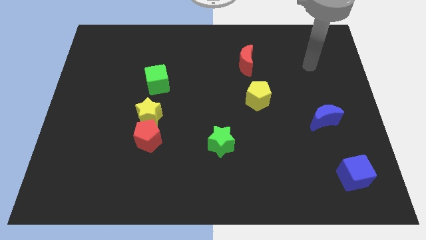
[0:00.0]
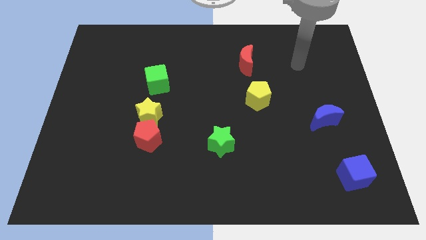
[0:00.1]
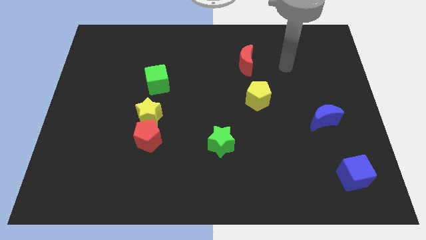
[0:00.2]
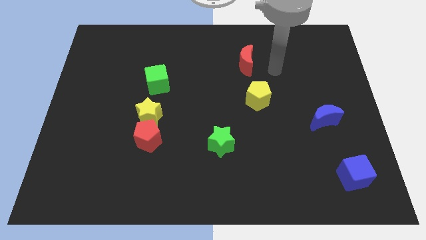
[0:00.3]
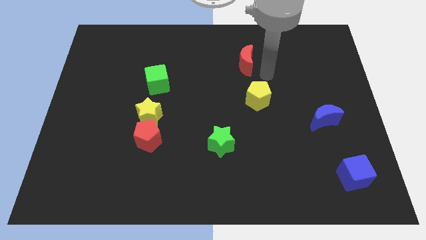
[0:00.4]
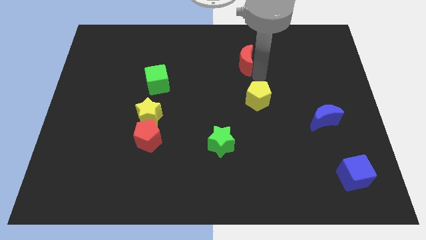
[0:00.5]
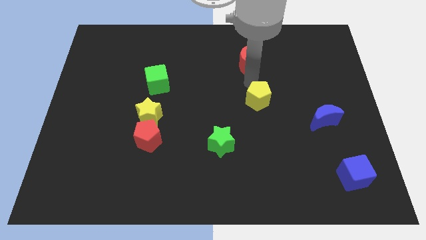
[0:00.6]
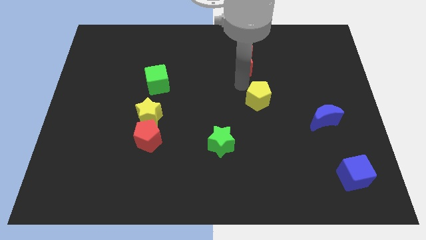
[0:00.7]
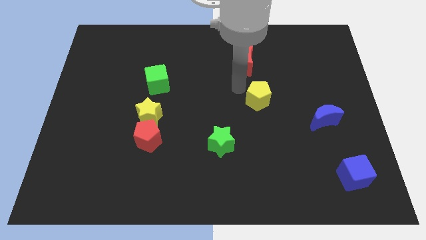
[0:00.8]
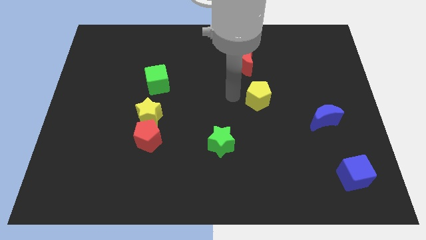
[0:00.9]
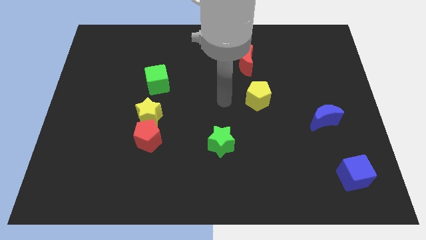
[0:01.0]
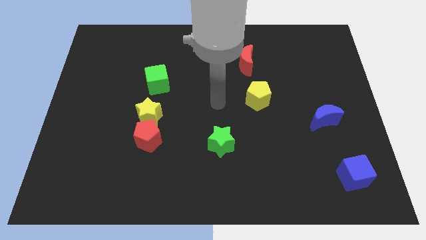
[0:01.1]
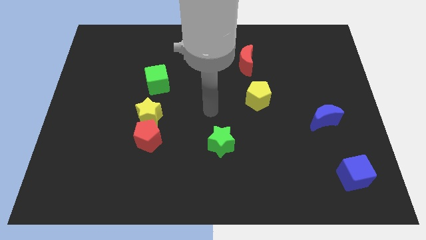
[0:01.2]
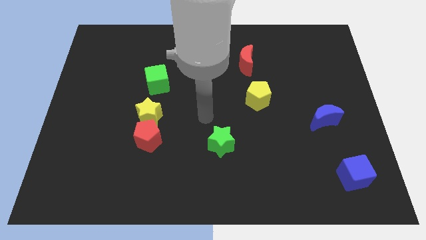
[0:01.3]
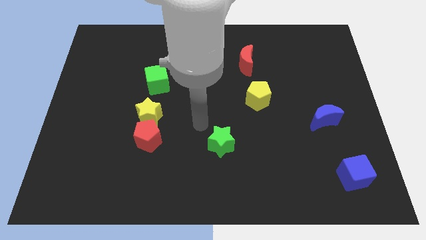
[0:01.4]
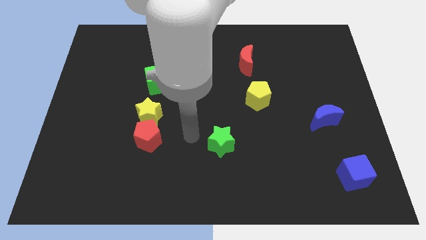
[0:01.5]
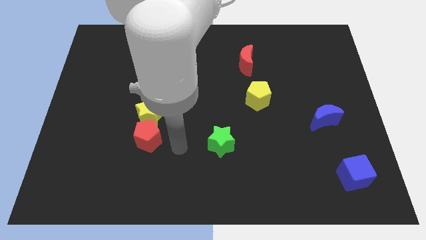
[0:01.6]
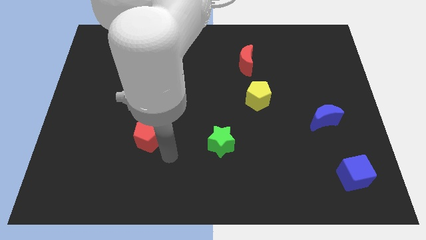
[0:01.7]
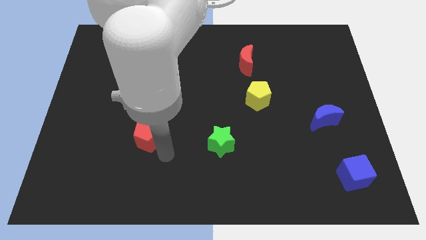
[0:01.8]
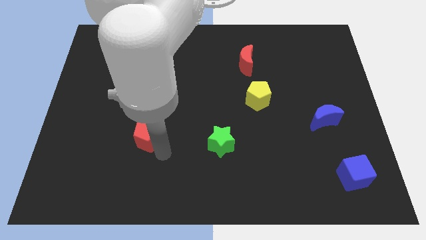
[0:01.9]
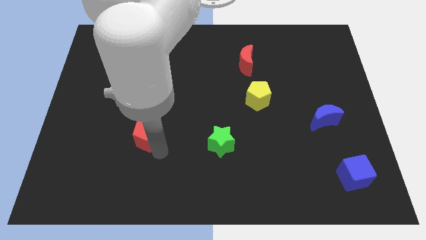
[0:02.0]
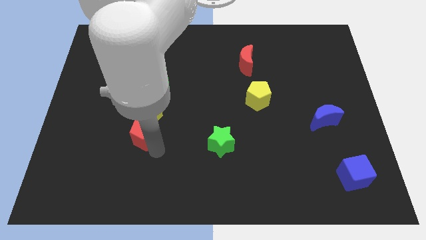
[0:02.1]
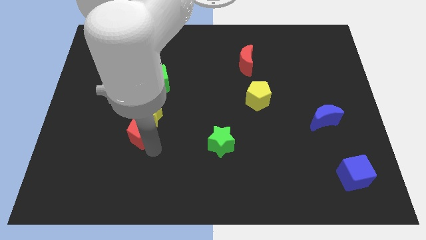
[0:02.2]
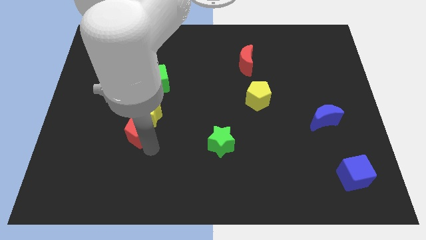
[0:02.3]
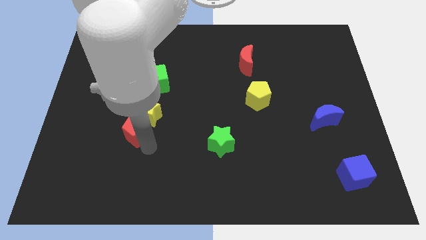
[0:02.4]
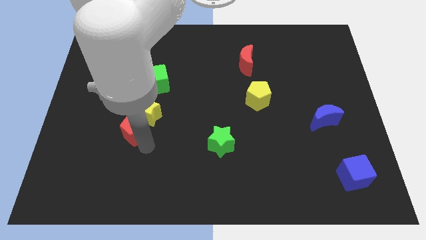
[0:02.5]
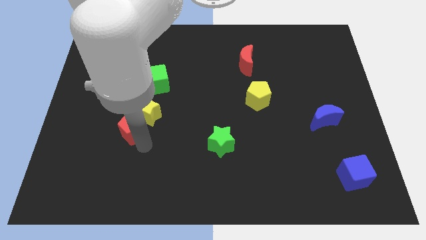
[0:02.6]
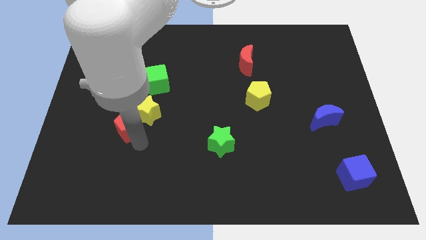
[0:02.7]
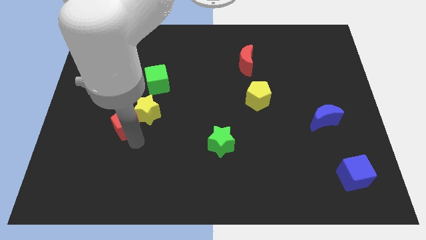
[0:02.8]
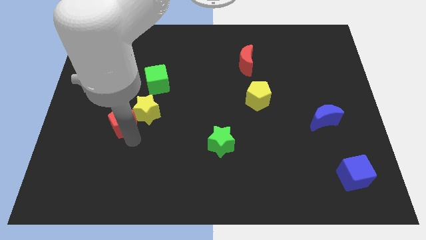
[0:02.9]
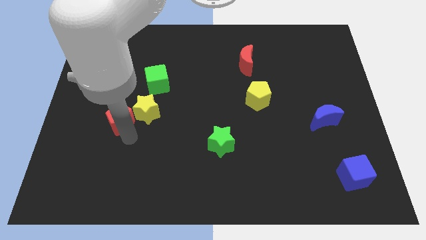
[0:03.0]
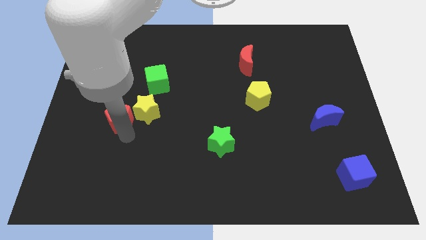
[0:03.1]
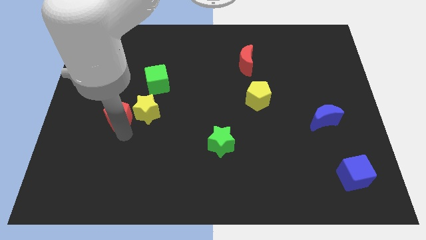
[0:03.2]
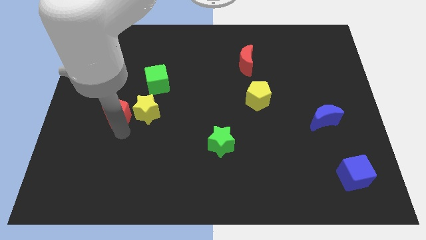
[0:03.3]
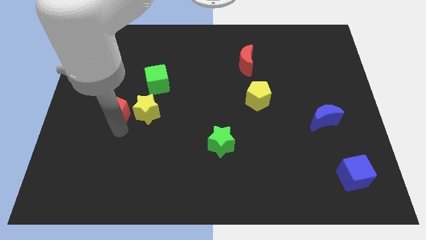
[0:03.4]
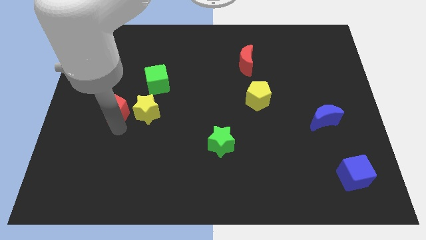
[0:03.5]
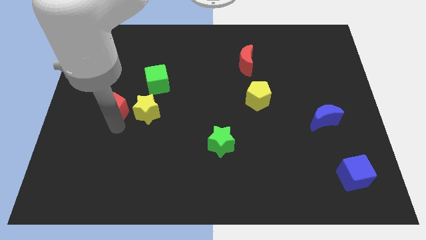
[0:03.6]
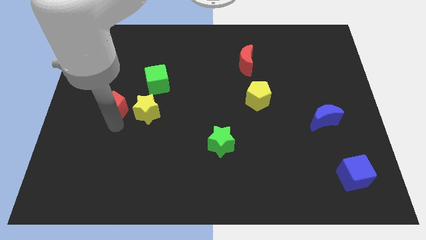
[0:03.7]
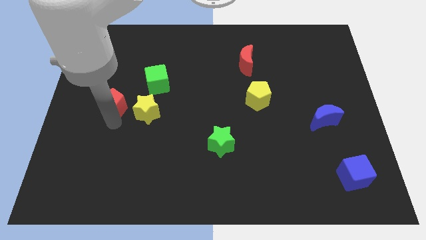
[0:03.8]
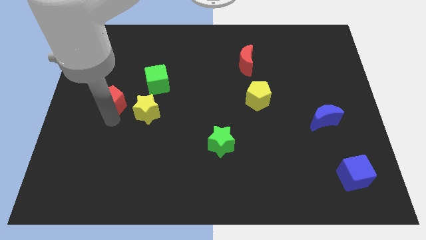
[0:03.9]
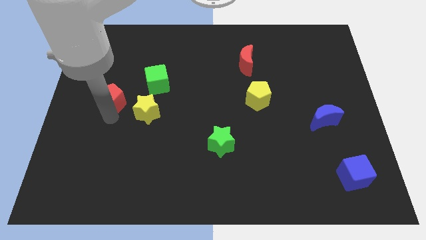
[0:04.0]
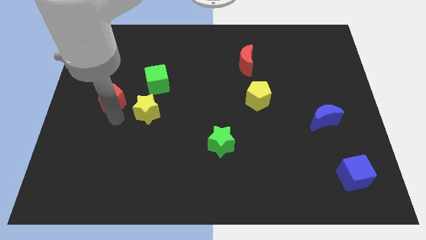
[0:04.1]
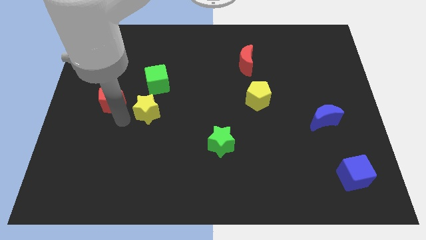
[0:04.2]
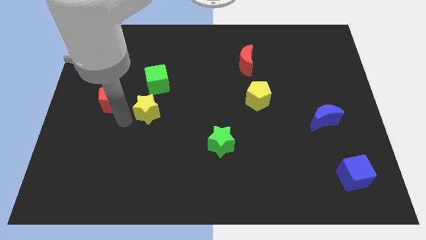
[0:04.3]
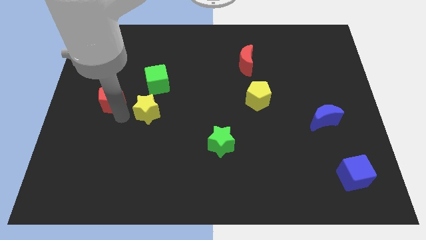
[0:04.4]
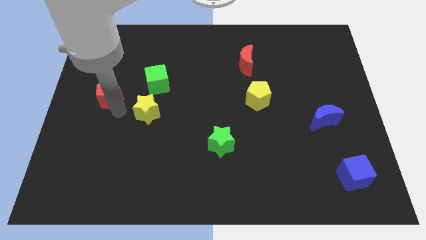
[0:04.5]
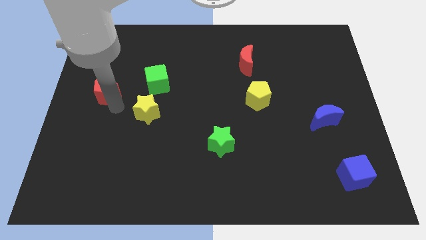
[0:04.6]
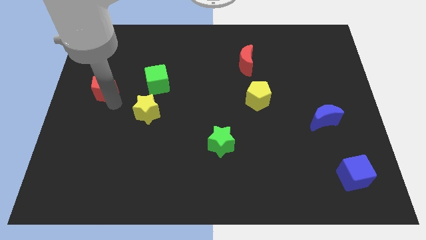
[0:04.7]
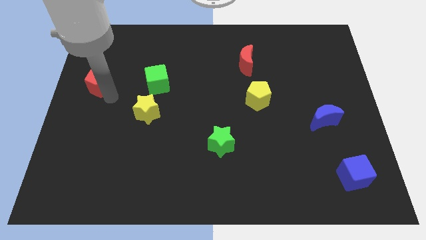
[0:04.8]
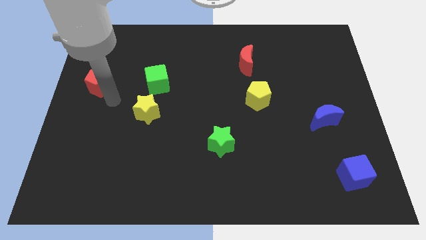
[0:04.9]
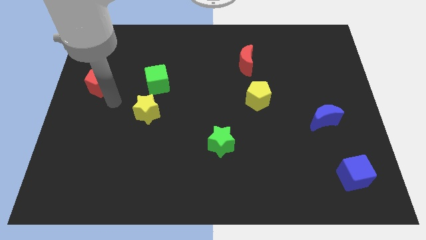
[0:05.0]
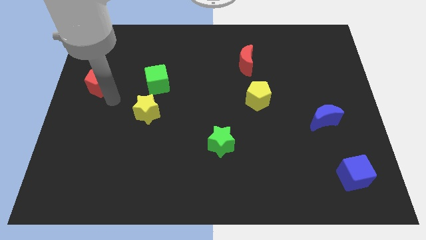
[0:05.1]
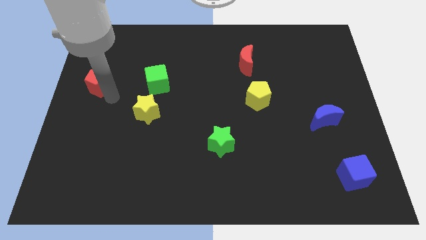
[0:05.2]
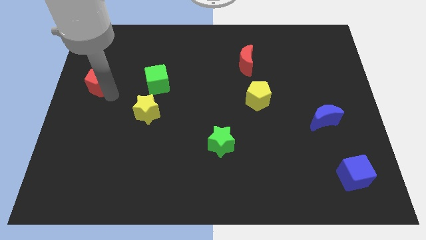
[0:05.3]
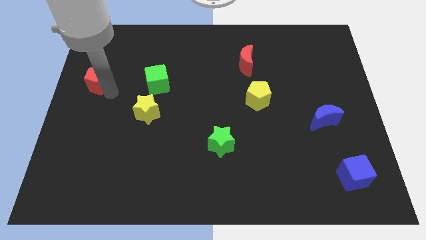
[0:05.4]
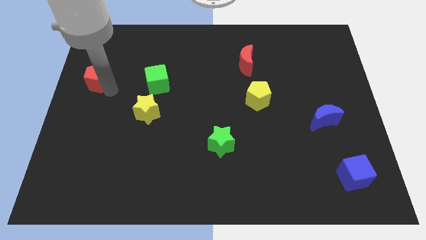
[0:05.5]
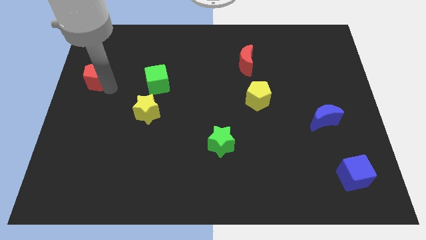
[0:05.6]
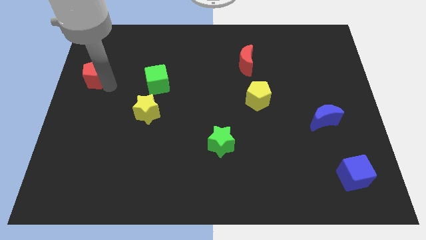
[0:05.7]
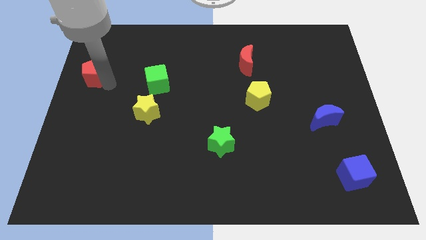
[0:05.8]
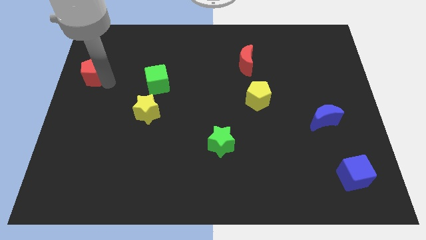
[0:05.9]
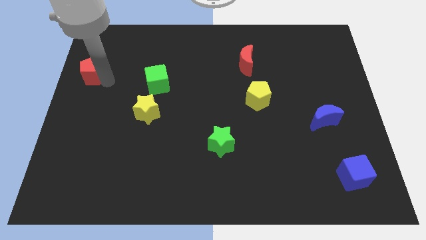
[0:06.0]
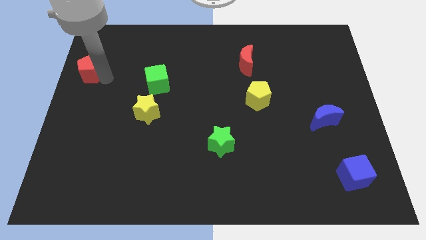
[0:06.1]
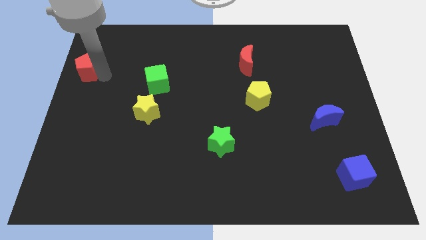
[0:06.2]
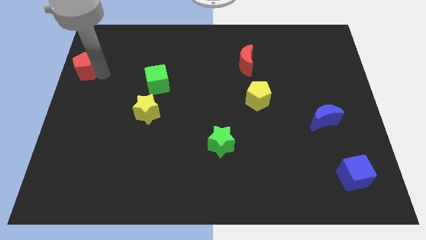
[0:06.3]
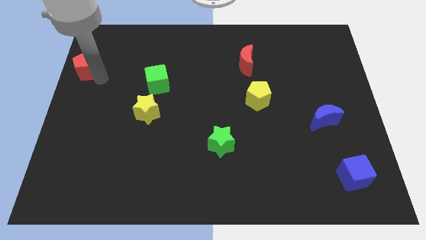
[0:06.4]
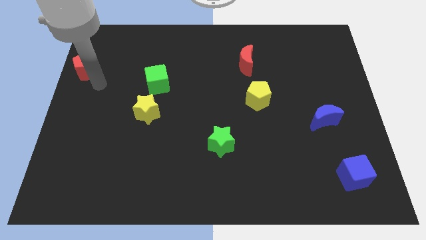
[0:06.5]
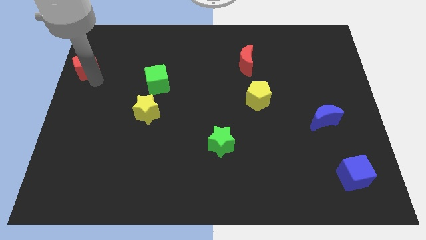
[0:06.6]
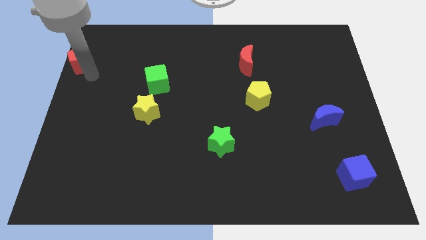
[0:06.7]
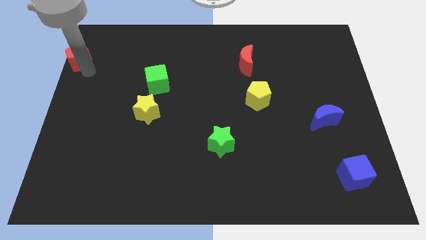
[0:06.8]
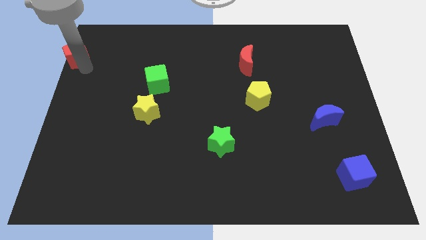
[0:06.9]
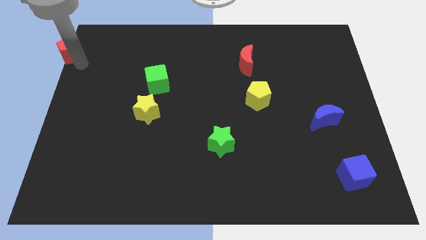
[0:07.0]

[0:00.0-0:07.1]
push the red pentagon to the top left corner
